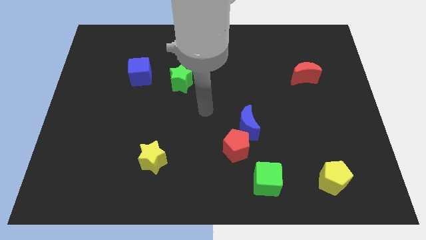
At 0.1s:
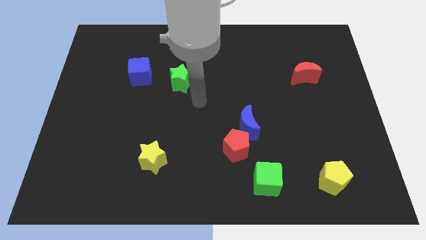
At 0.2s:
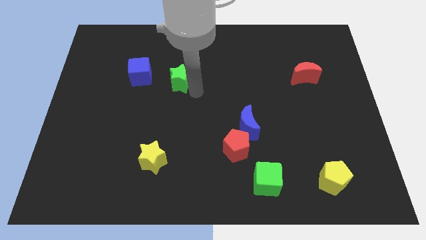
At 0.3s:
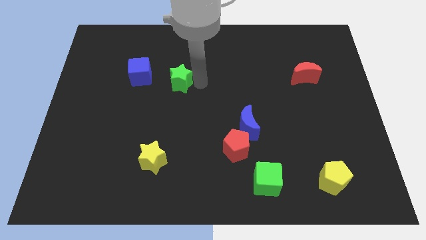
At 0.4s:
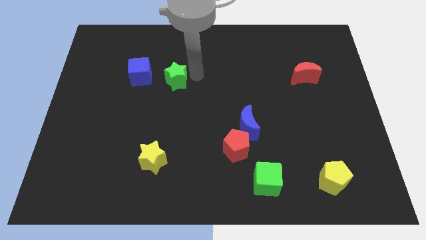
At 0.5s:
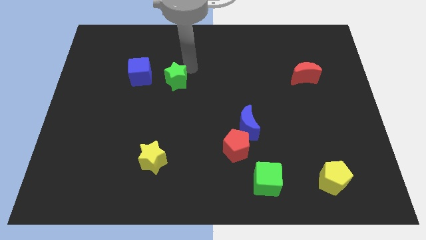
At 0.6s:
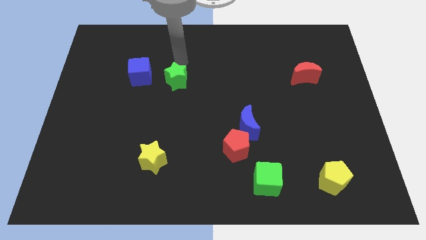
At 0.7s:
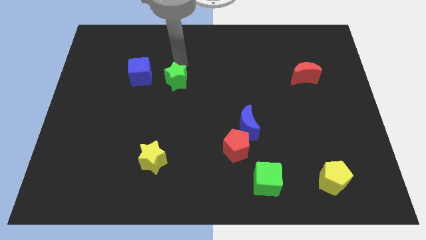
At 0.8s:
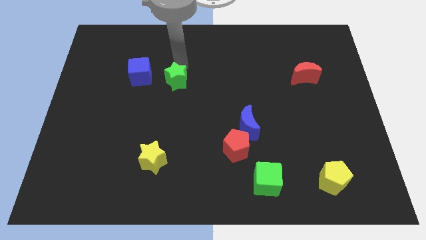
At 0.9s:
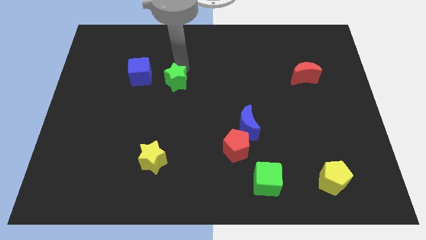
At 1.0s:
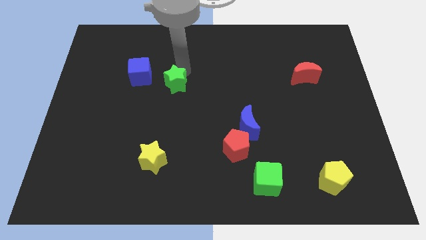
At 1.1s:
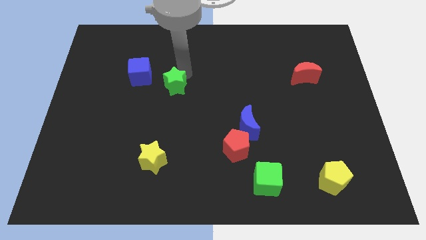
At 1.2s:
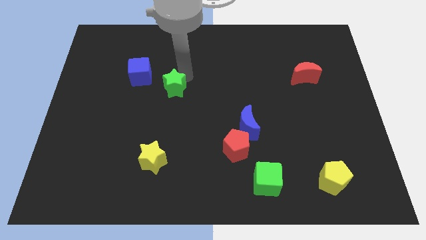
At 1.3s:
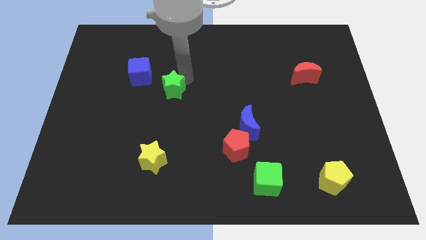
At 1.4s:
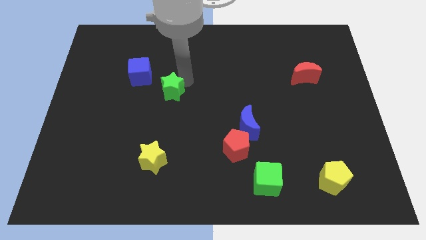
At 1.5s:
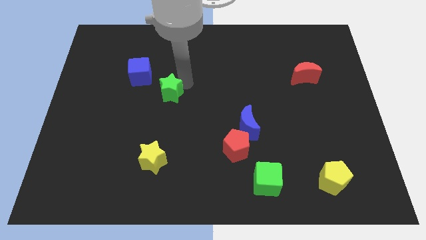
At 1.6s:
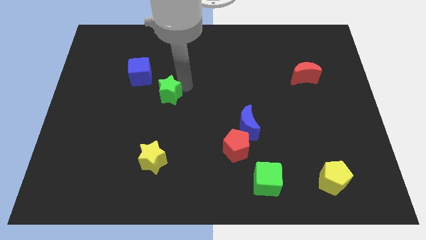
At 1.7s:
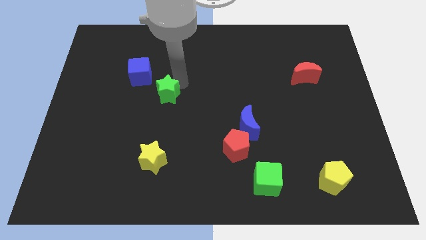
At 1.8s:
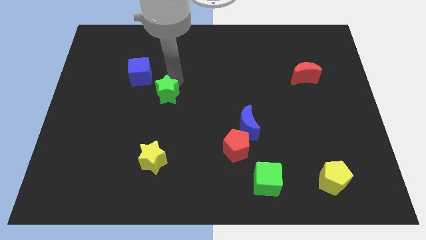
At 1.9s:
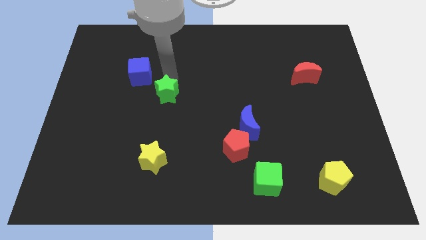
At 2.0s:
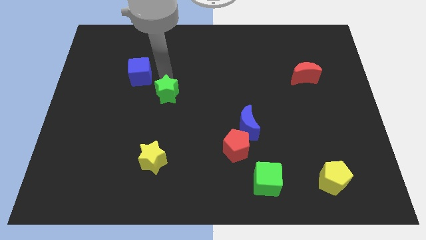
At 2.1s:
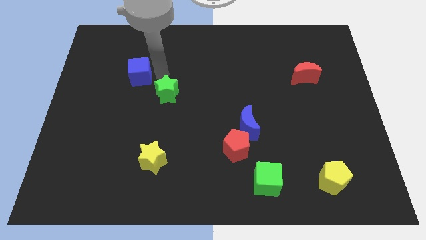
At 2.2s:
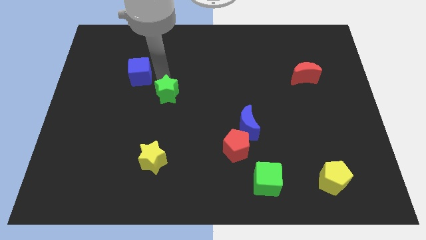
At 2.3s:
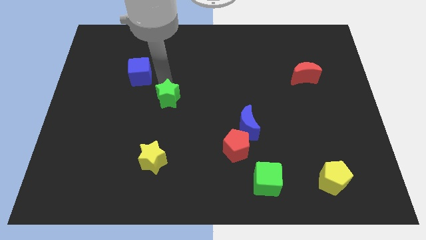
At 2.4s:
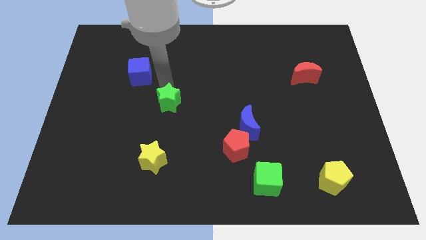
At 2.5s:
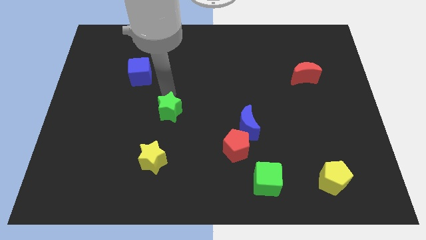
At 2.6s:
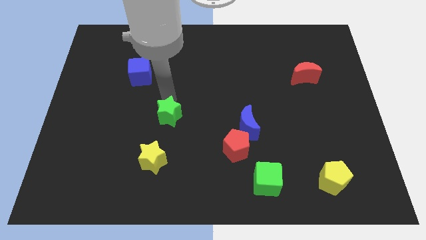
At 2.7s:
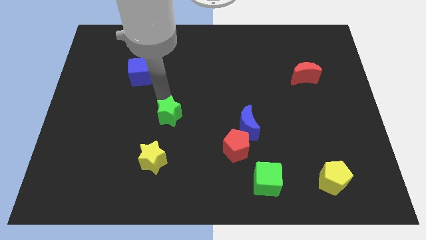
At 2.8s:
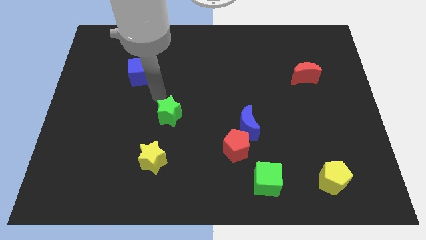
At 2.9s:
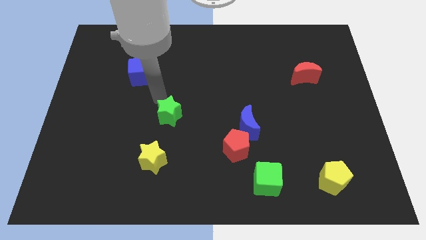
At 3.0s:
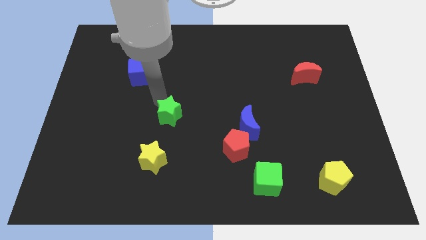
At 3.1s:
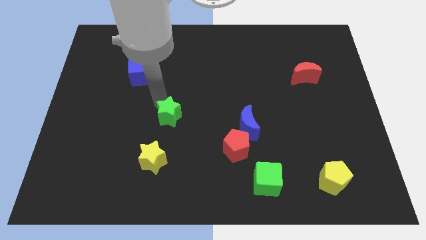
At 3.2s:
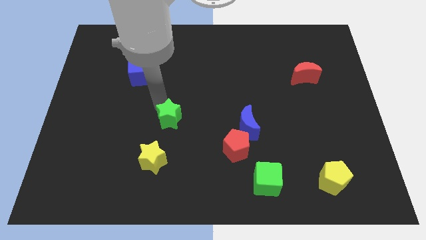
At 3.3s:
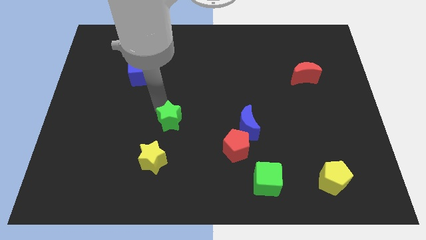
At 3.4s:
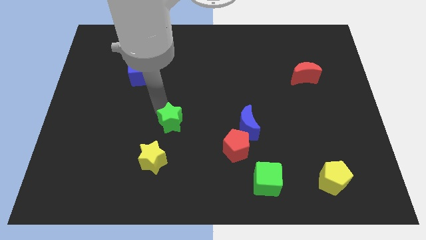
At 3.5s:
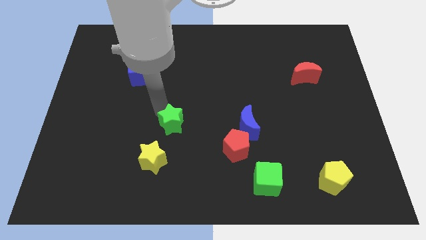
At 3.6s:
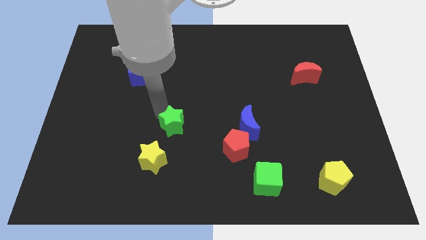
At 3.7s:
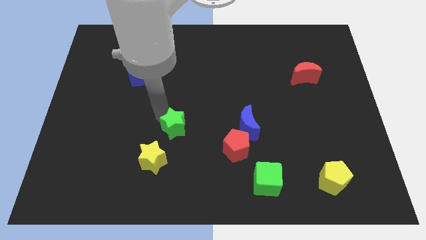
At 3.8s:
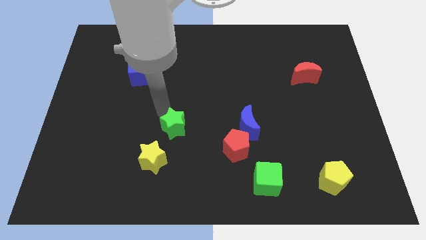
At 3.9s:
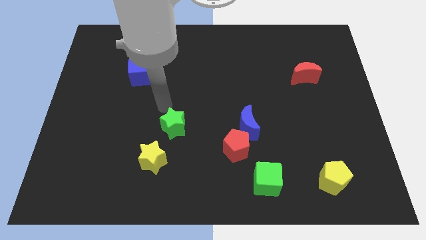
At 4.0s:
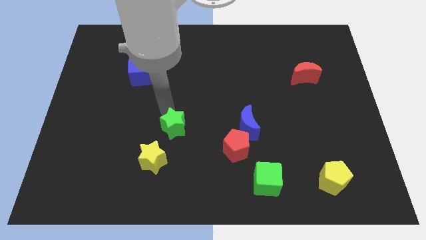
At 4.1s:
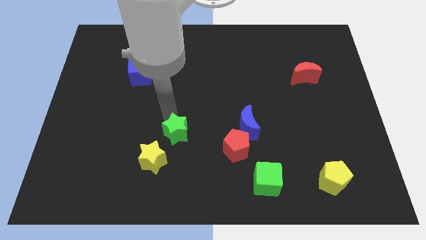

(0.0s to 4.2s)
push the green star to the left side of the red pentagon

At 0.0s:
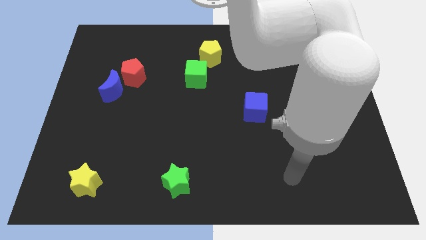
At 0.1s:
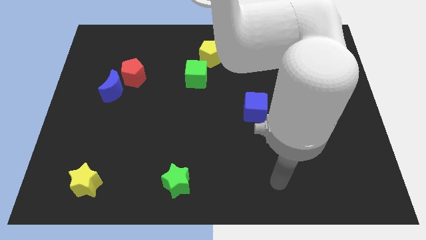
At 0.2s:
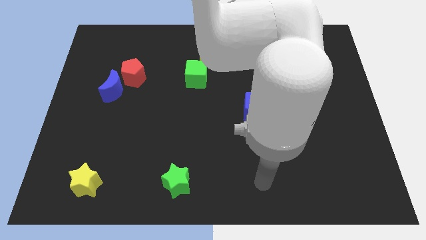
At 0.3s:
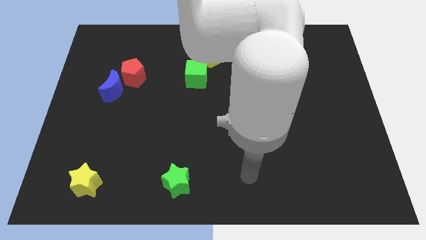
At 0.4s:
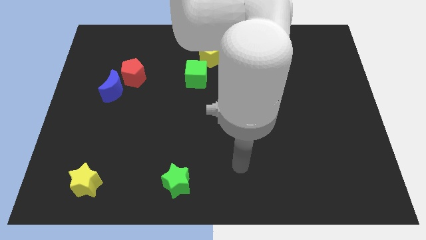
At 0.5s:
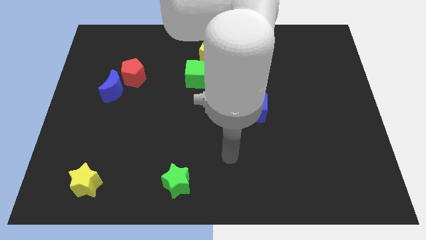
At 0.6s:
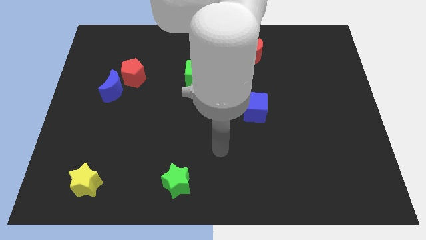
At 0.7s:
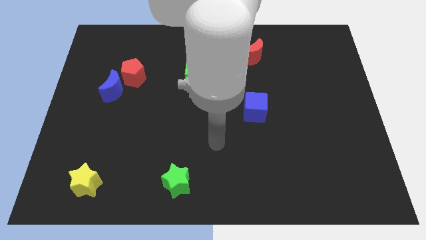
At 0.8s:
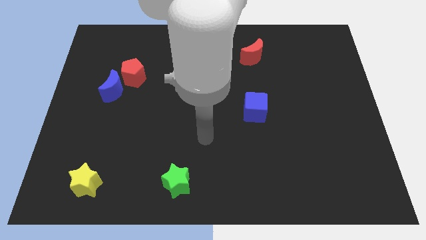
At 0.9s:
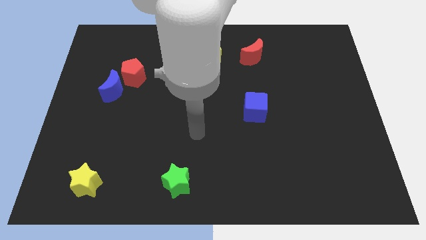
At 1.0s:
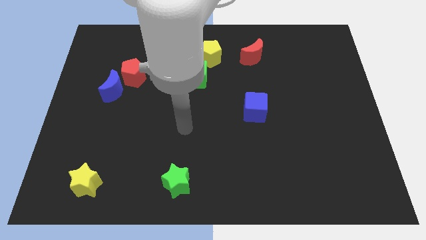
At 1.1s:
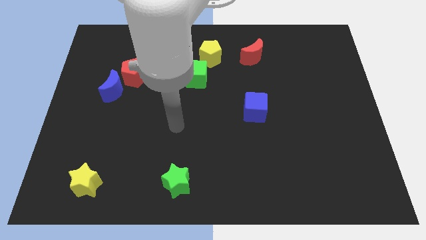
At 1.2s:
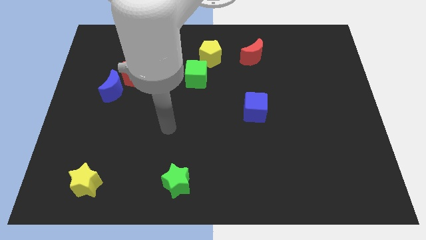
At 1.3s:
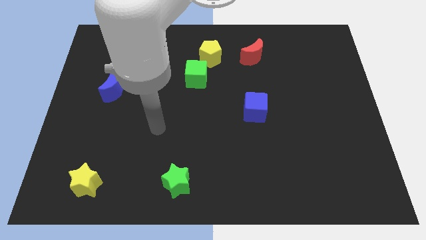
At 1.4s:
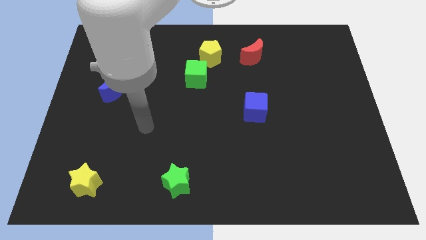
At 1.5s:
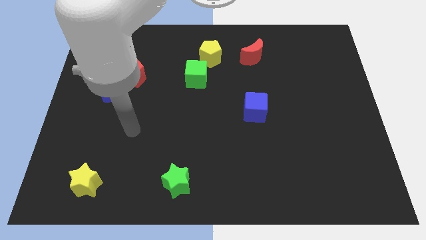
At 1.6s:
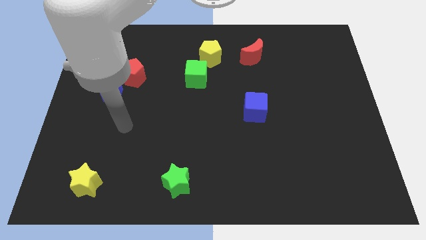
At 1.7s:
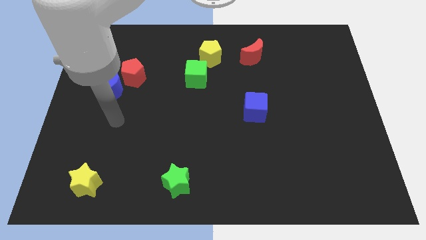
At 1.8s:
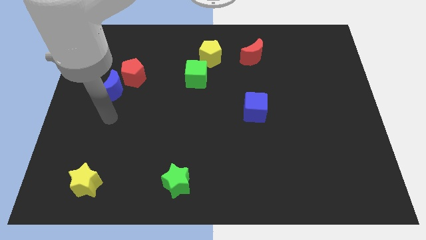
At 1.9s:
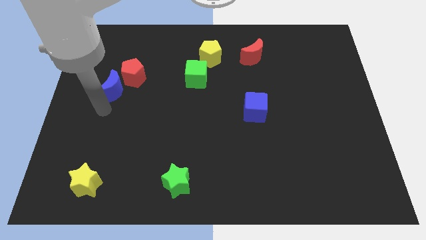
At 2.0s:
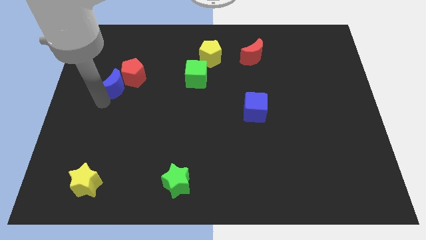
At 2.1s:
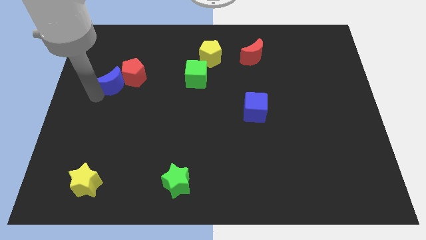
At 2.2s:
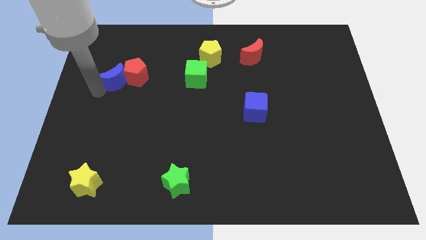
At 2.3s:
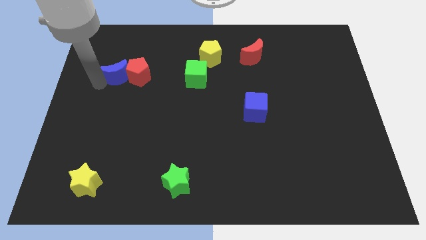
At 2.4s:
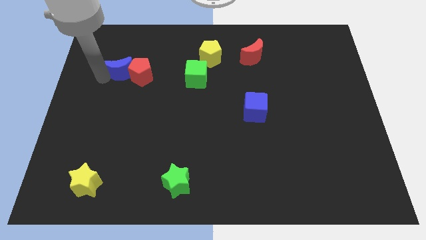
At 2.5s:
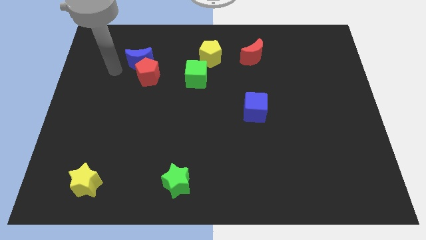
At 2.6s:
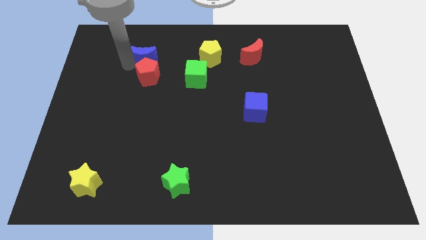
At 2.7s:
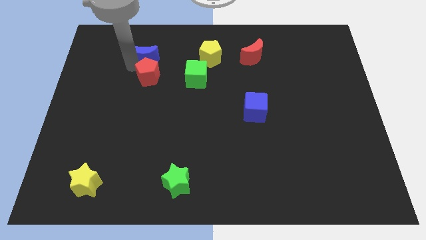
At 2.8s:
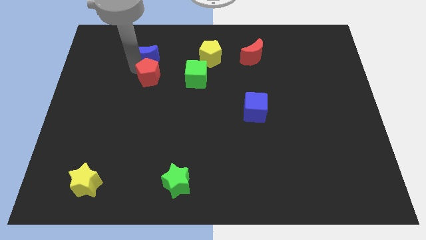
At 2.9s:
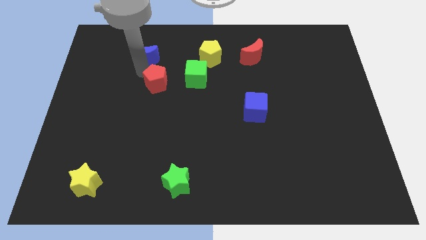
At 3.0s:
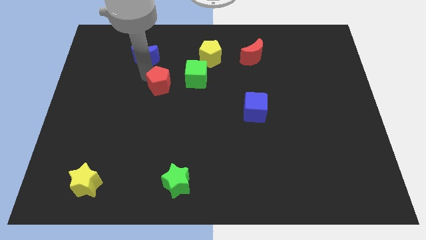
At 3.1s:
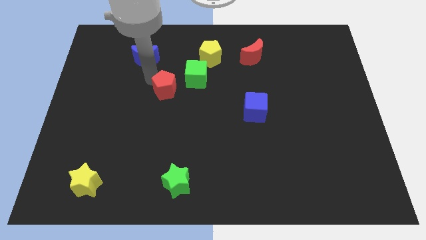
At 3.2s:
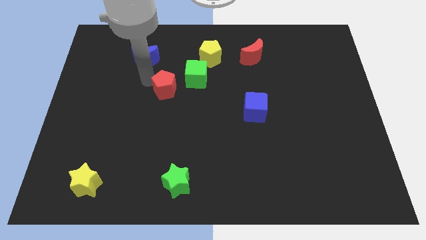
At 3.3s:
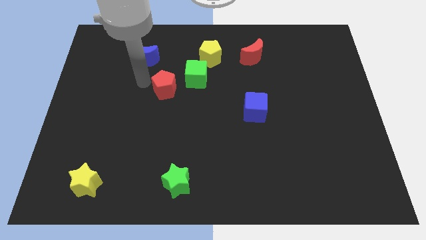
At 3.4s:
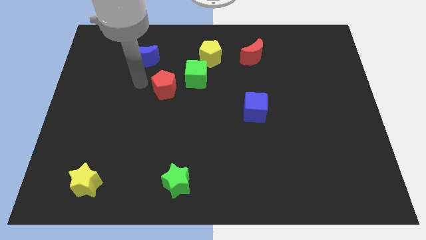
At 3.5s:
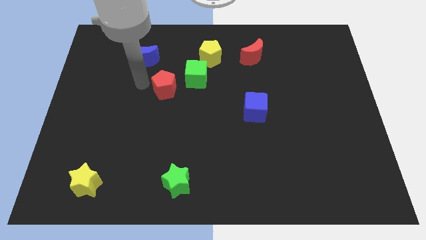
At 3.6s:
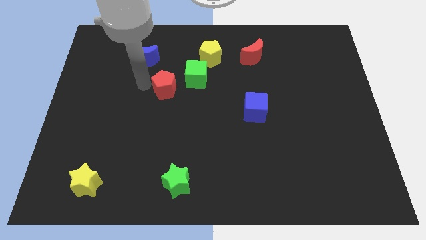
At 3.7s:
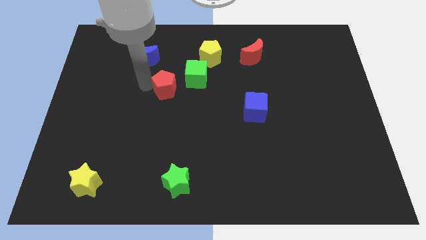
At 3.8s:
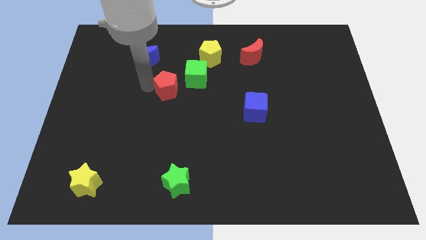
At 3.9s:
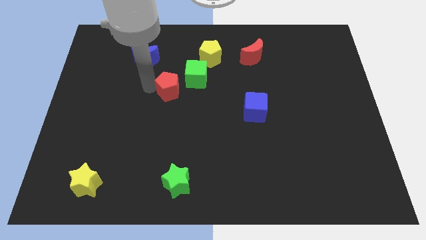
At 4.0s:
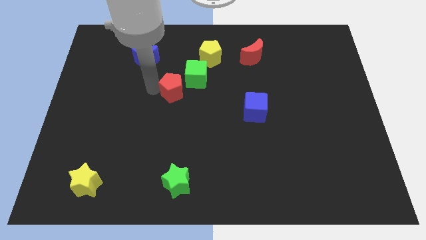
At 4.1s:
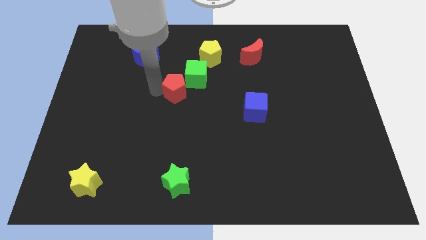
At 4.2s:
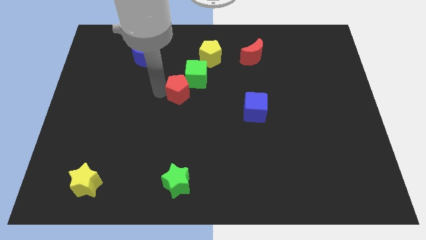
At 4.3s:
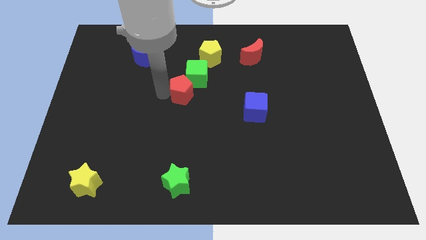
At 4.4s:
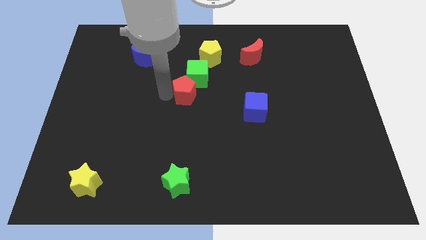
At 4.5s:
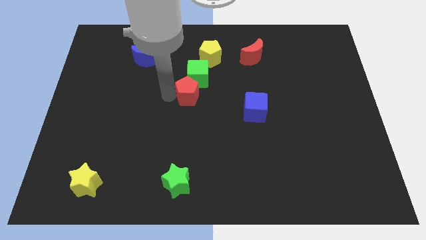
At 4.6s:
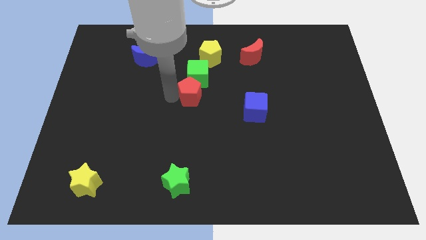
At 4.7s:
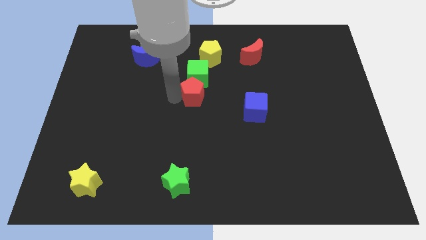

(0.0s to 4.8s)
put the red pentagon to the bottom of the yellow pentagon
